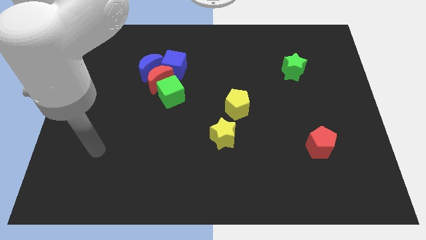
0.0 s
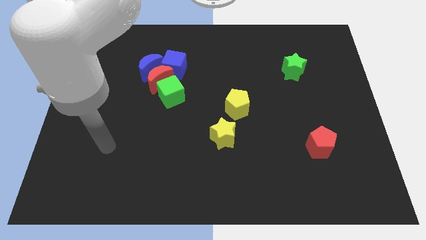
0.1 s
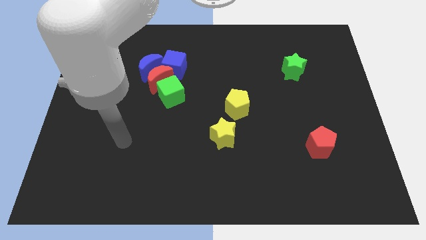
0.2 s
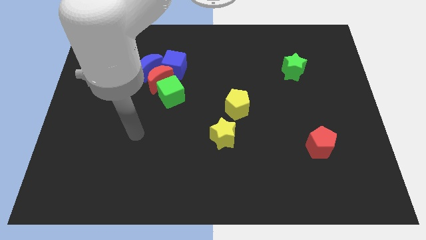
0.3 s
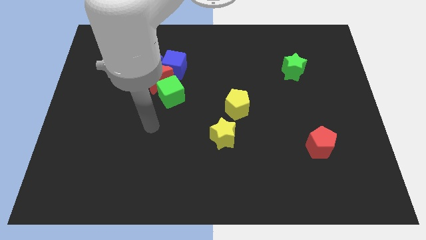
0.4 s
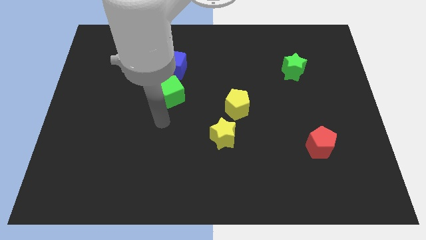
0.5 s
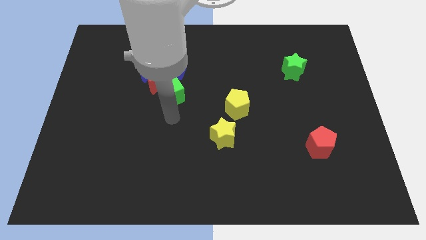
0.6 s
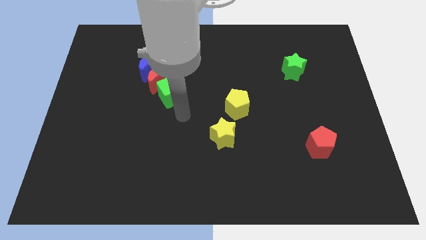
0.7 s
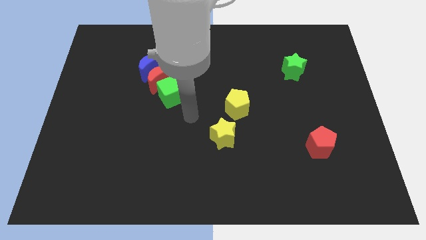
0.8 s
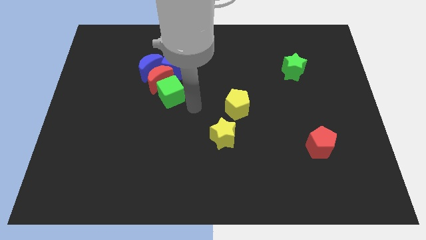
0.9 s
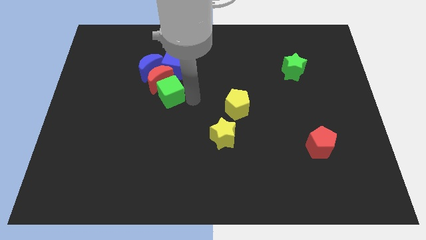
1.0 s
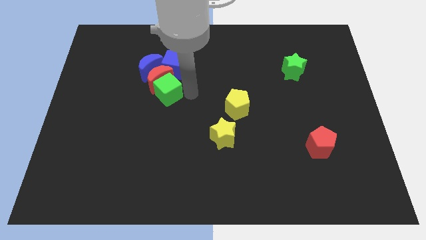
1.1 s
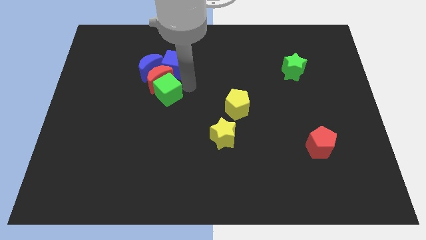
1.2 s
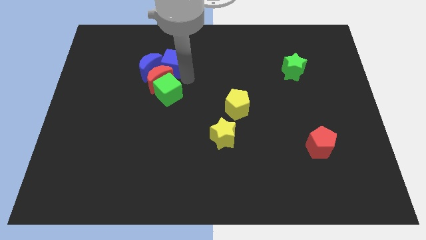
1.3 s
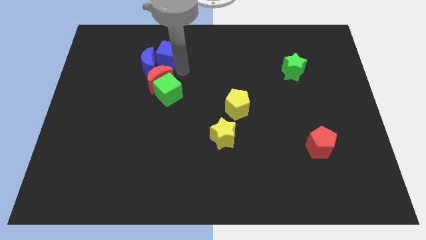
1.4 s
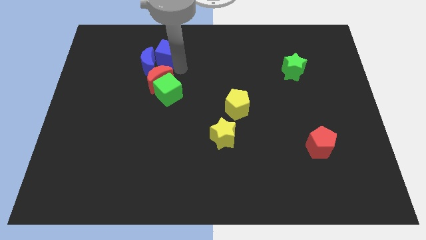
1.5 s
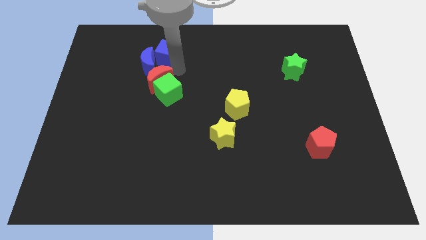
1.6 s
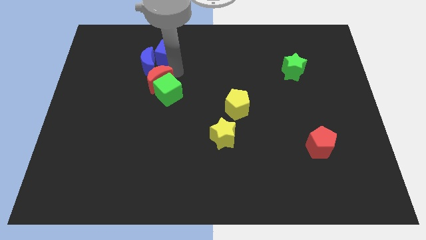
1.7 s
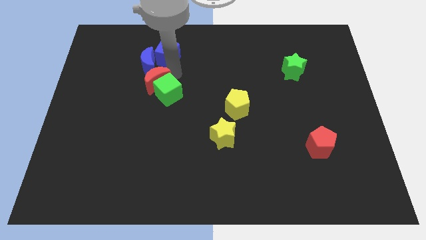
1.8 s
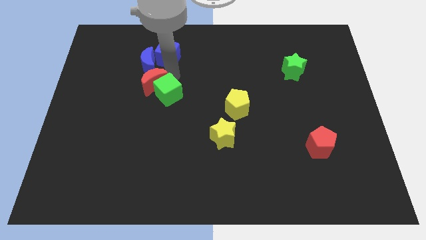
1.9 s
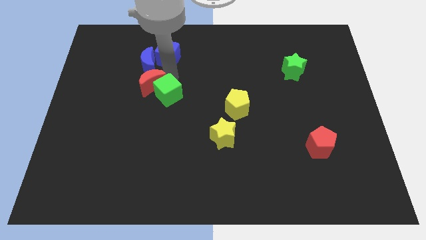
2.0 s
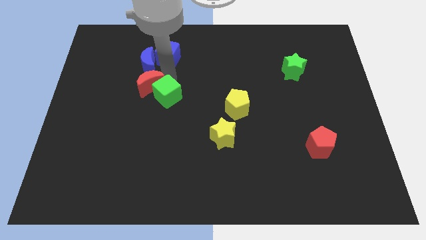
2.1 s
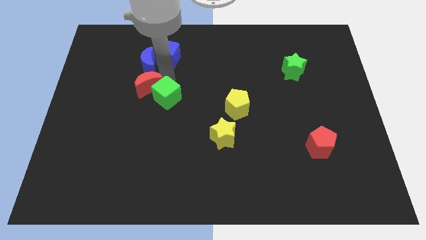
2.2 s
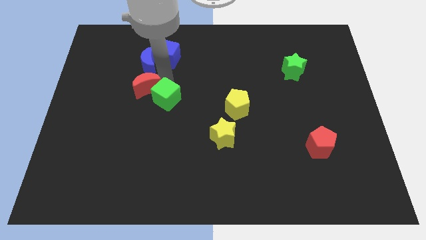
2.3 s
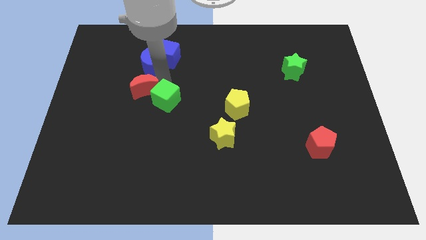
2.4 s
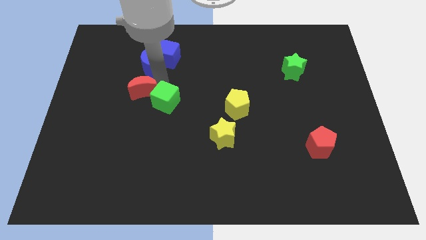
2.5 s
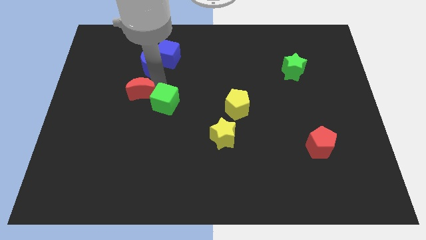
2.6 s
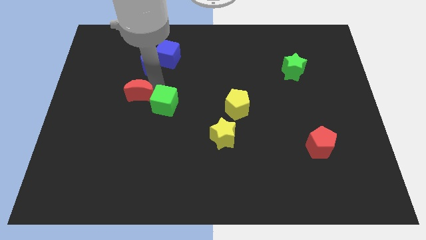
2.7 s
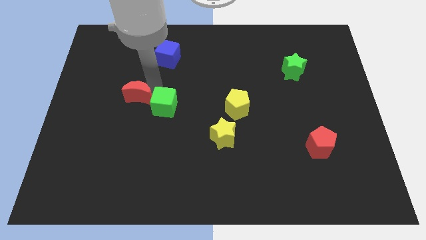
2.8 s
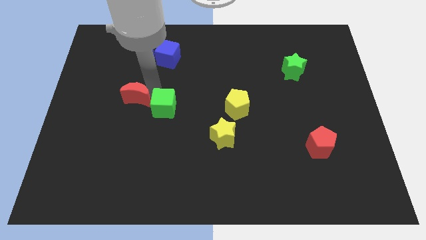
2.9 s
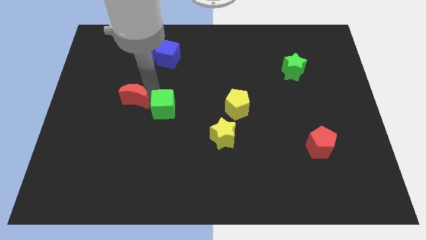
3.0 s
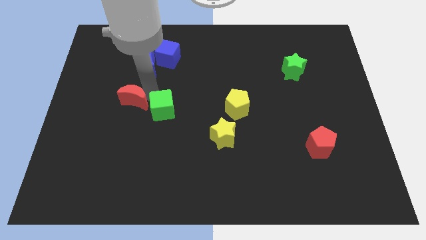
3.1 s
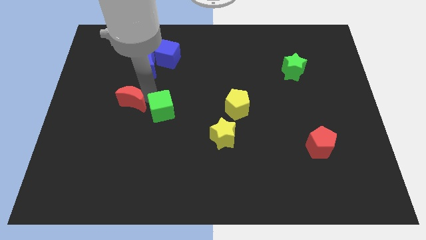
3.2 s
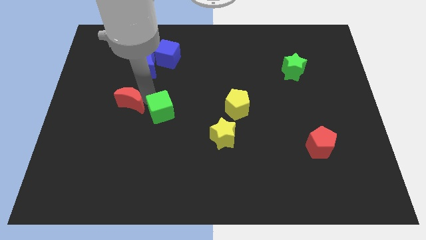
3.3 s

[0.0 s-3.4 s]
separate the red moon from the blue moon, green cube, and blue cube

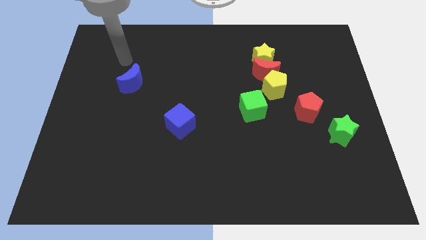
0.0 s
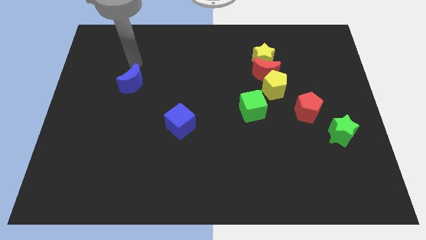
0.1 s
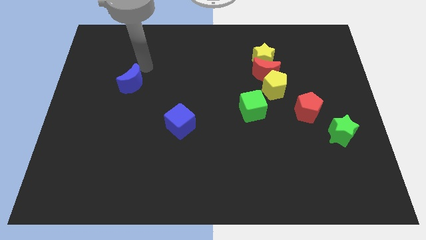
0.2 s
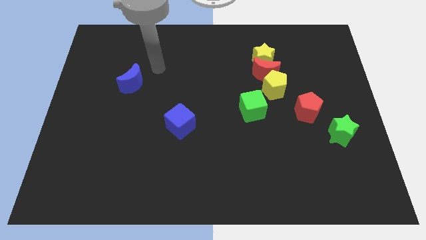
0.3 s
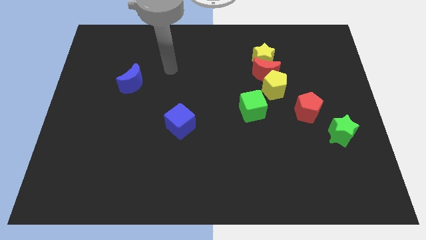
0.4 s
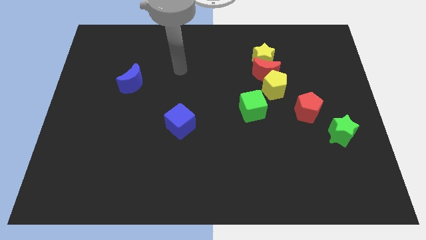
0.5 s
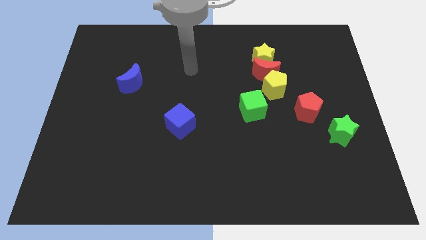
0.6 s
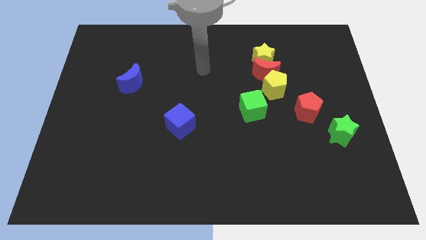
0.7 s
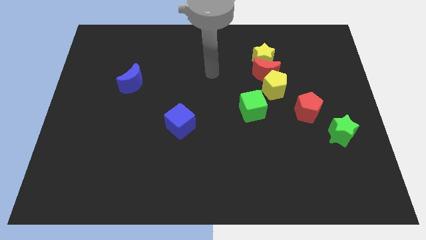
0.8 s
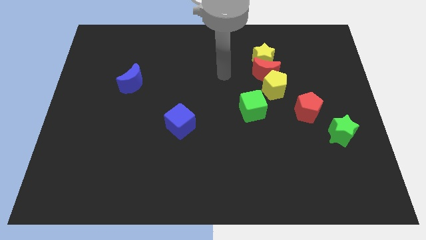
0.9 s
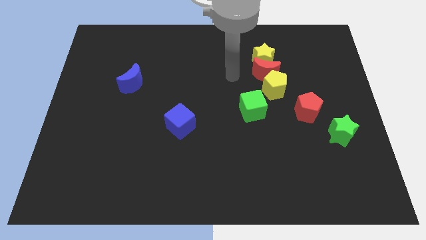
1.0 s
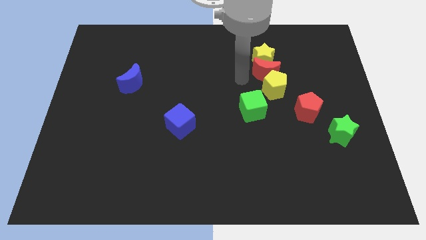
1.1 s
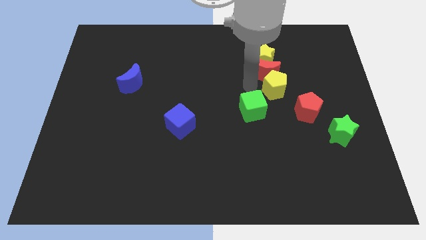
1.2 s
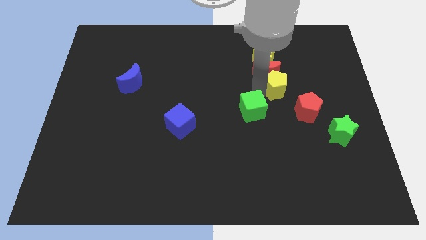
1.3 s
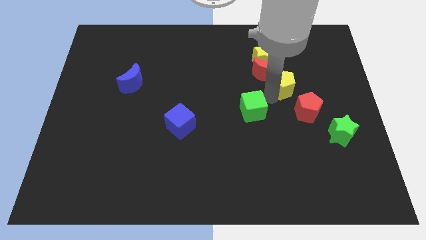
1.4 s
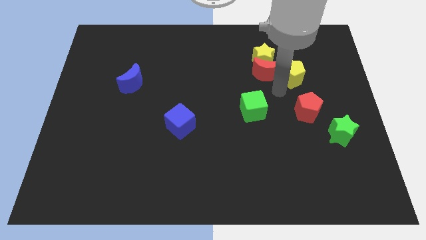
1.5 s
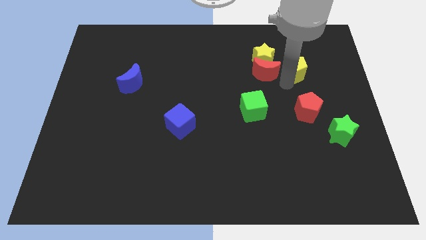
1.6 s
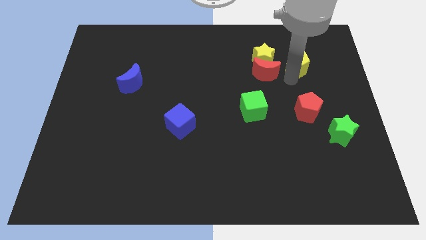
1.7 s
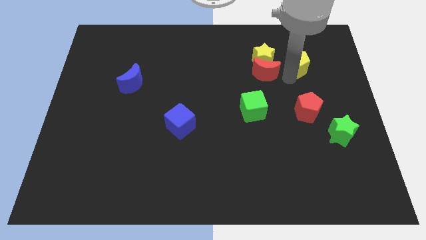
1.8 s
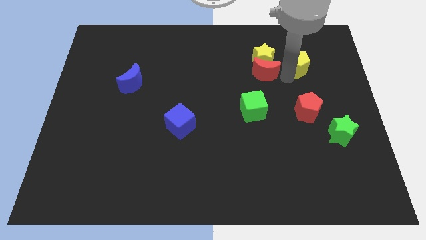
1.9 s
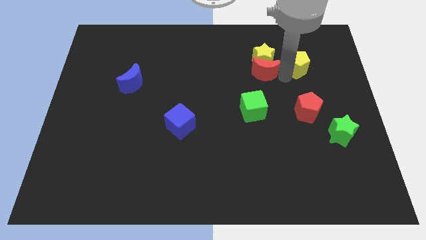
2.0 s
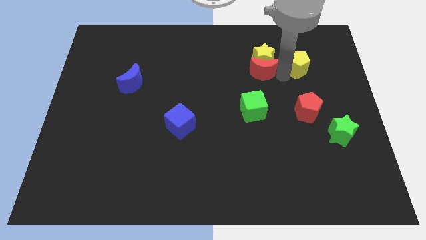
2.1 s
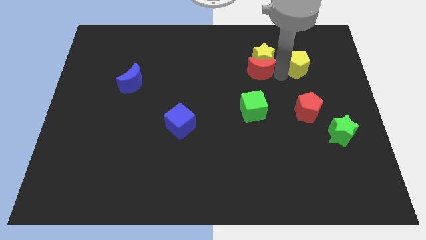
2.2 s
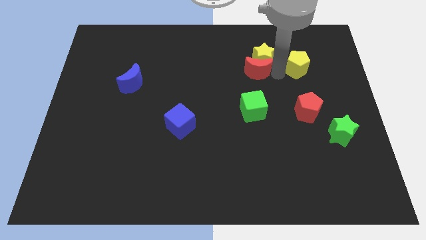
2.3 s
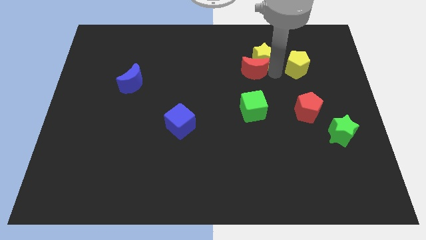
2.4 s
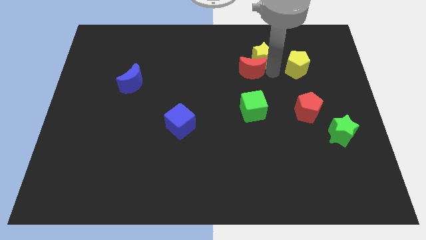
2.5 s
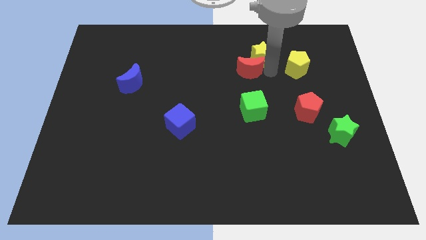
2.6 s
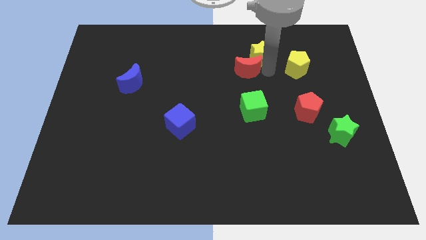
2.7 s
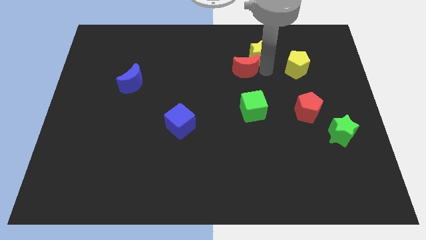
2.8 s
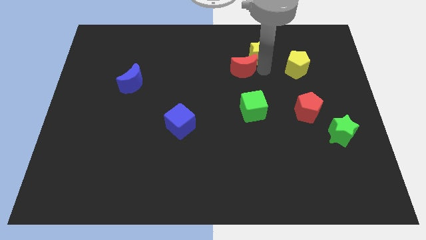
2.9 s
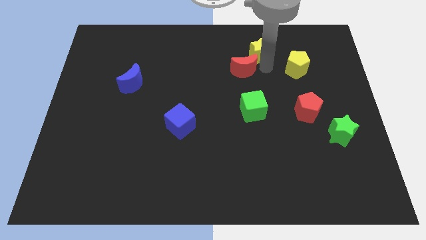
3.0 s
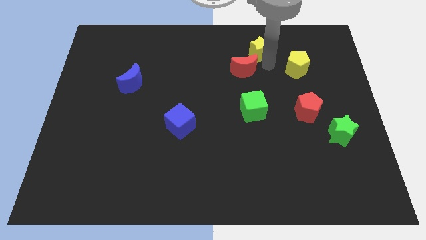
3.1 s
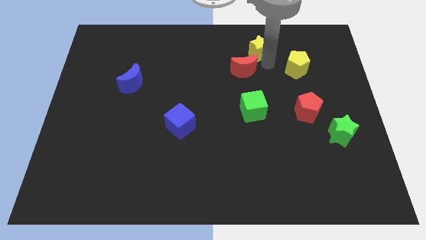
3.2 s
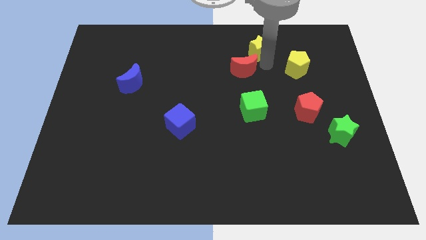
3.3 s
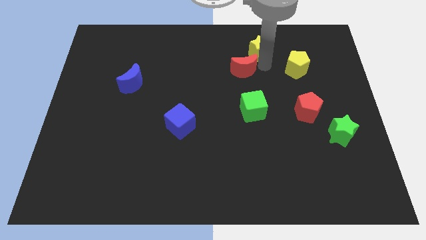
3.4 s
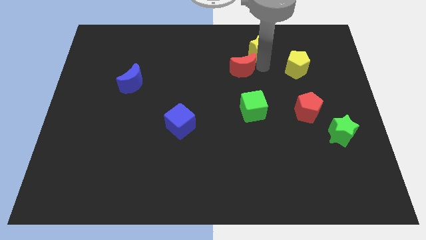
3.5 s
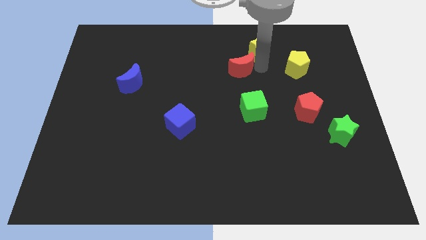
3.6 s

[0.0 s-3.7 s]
separate the red moon from the yellow star and yellow pentagon

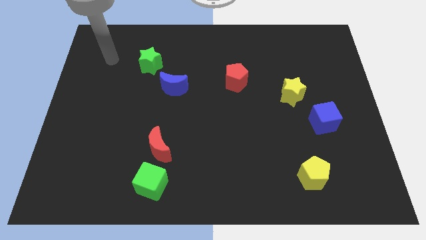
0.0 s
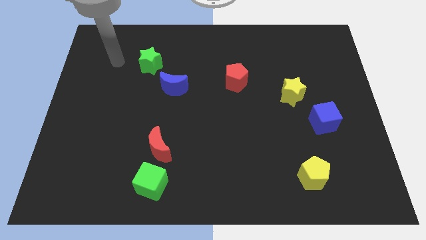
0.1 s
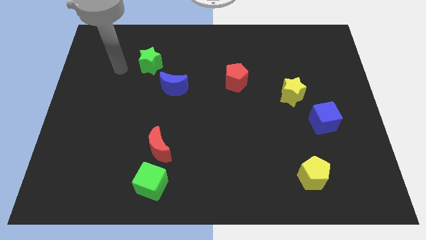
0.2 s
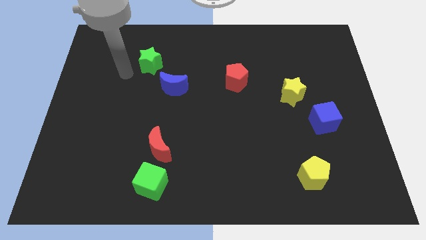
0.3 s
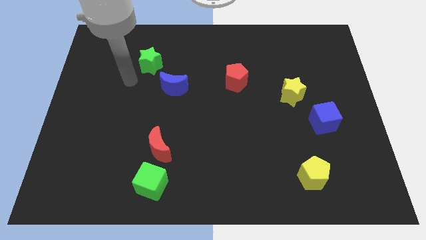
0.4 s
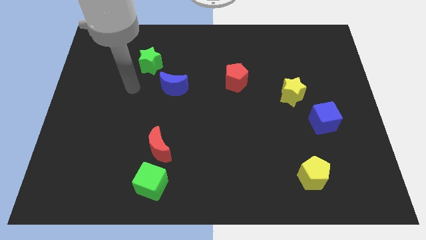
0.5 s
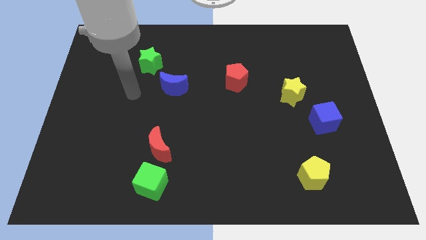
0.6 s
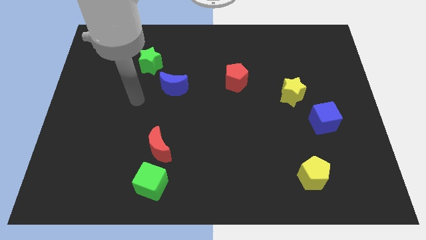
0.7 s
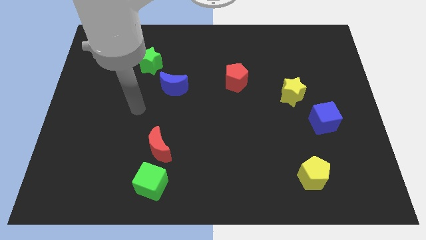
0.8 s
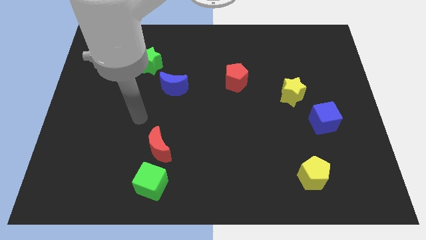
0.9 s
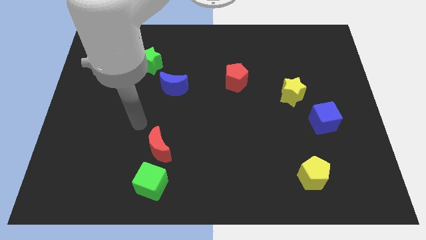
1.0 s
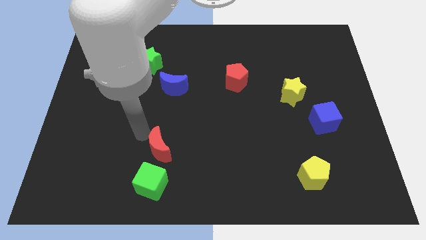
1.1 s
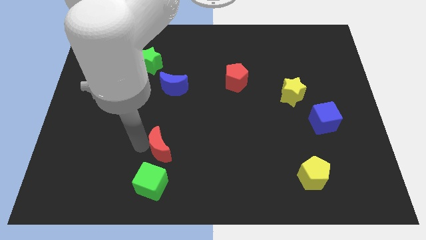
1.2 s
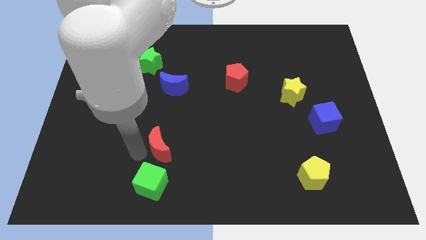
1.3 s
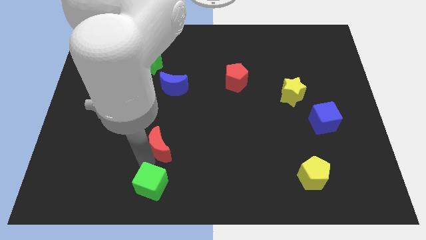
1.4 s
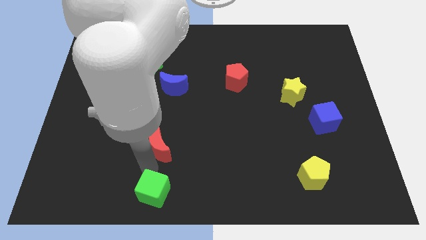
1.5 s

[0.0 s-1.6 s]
separate the red moon from the green cube

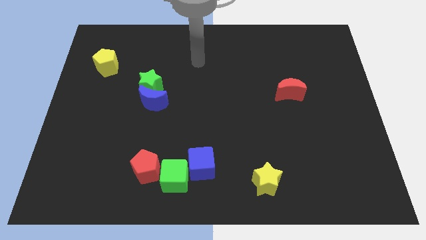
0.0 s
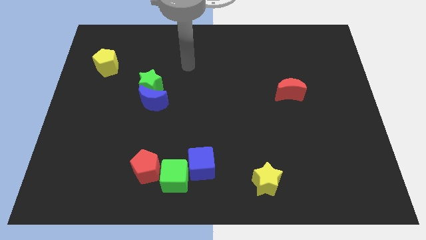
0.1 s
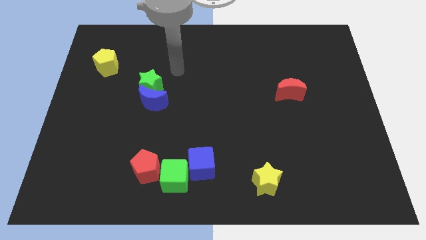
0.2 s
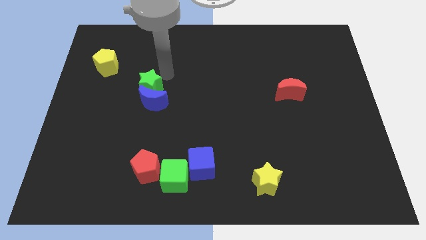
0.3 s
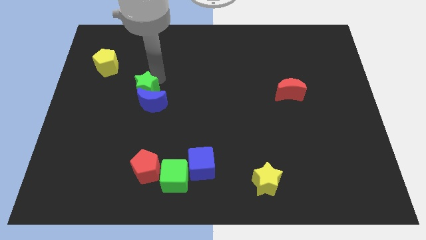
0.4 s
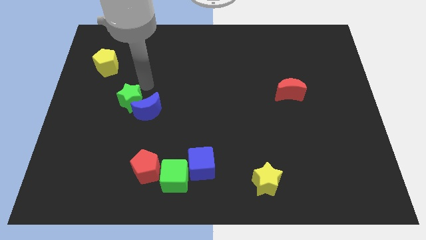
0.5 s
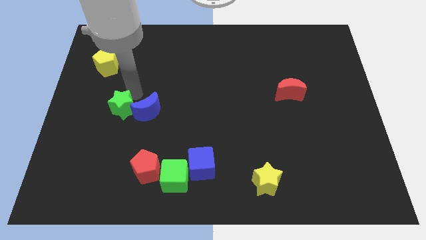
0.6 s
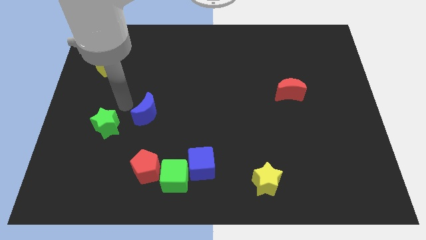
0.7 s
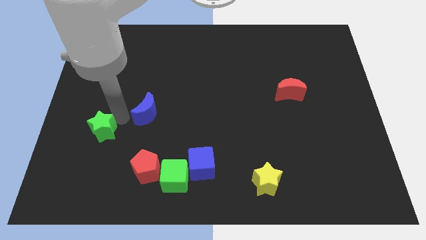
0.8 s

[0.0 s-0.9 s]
move the blue moon away from the green star

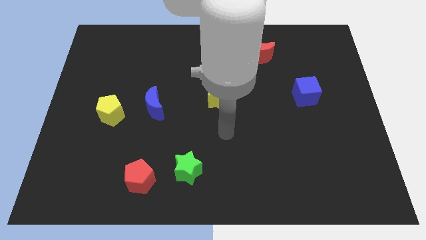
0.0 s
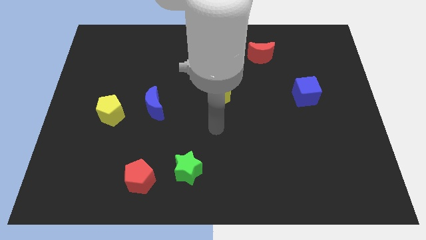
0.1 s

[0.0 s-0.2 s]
separate the blue moon from the yellow pentagon
